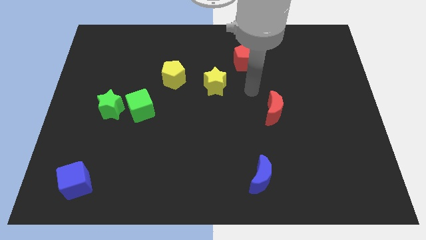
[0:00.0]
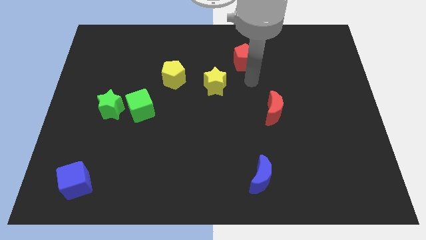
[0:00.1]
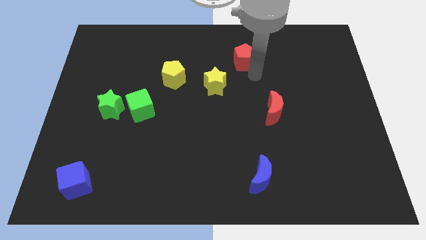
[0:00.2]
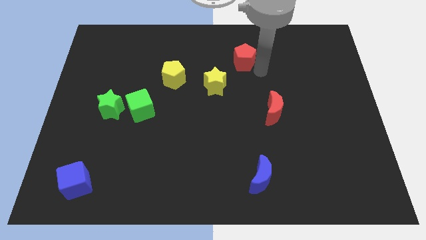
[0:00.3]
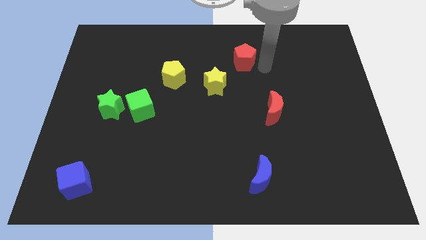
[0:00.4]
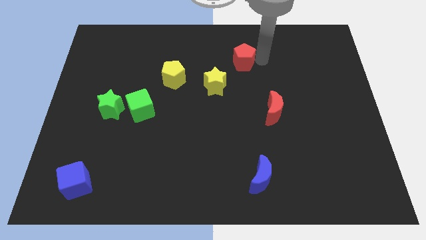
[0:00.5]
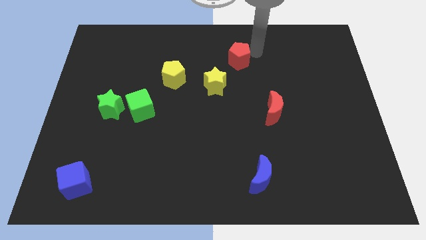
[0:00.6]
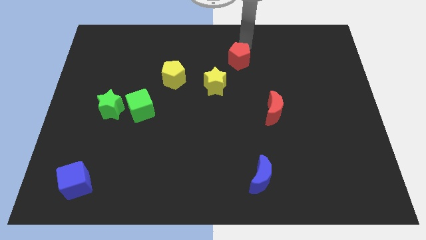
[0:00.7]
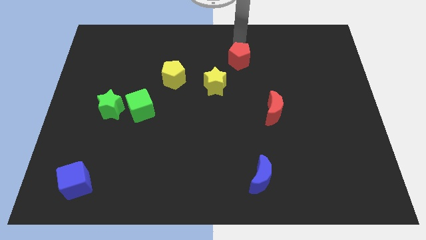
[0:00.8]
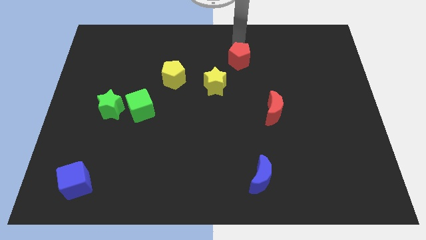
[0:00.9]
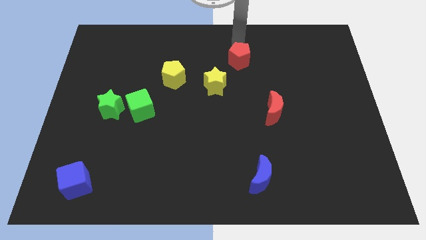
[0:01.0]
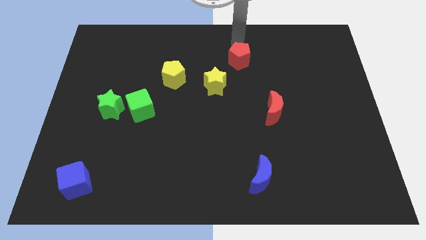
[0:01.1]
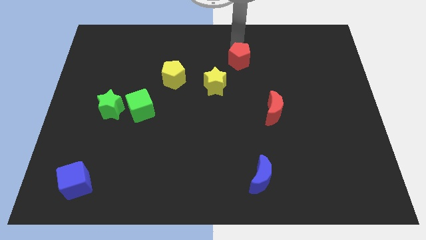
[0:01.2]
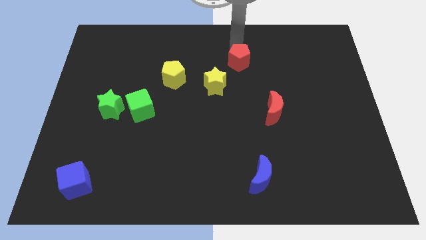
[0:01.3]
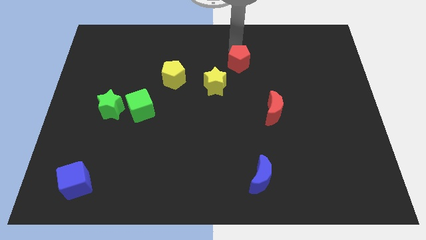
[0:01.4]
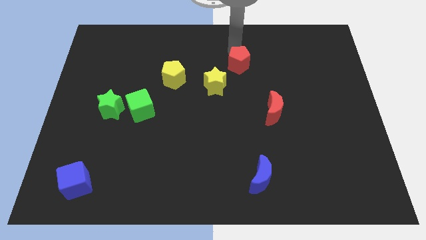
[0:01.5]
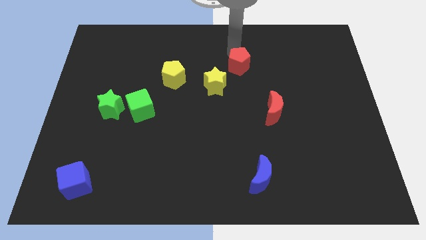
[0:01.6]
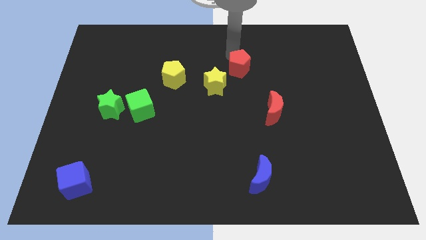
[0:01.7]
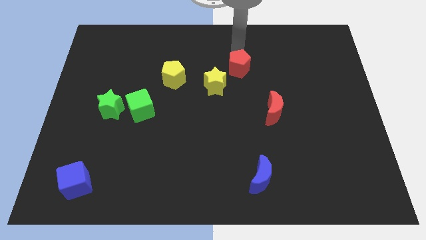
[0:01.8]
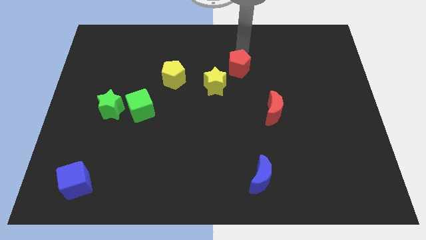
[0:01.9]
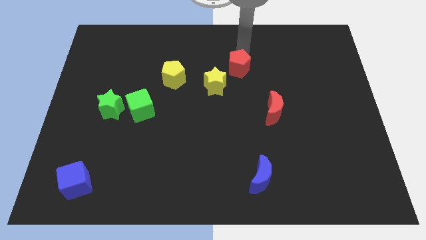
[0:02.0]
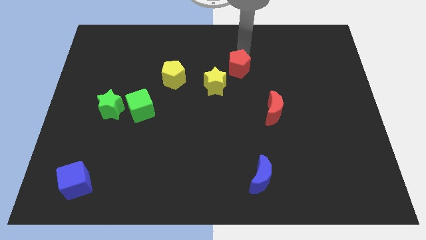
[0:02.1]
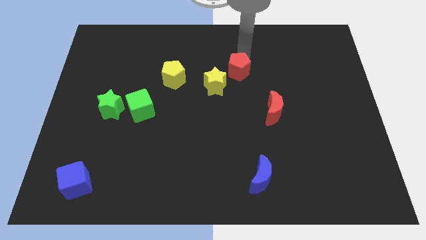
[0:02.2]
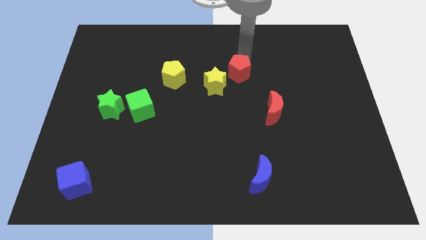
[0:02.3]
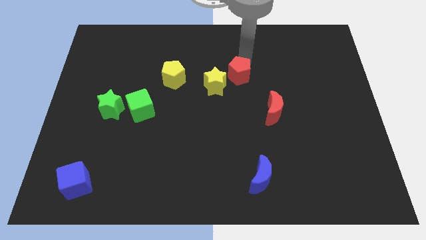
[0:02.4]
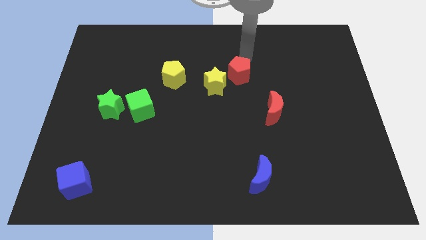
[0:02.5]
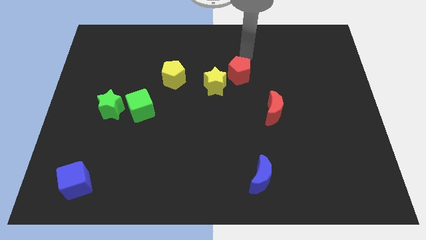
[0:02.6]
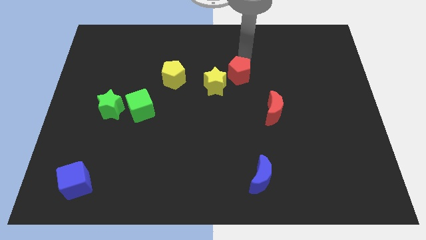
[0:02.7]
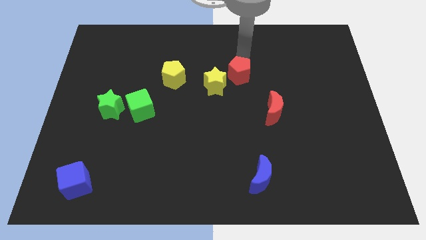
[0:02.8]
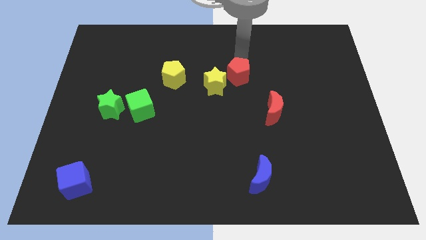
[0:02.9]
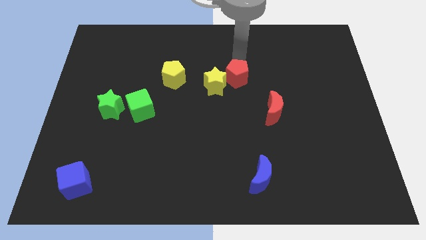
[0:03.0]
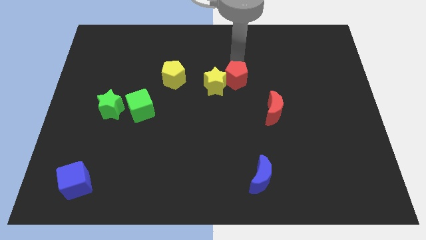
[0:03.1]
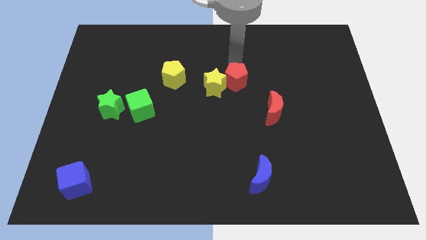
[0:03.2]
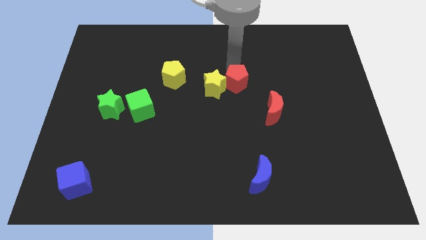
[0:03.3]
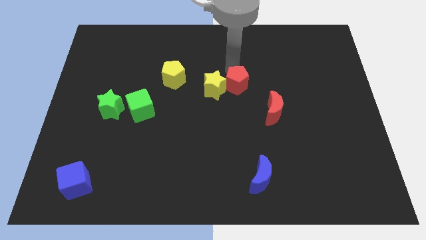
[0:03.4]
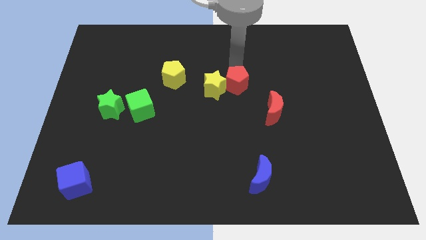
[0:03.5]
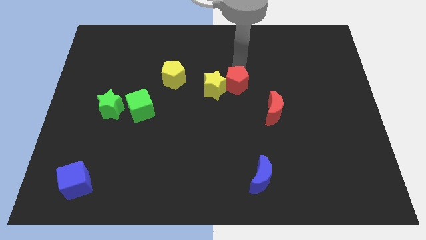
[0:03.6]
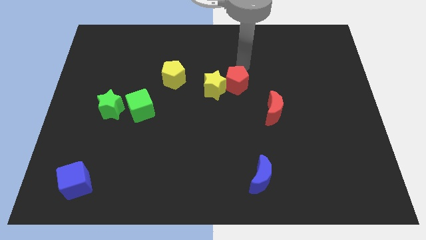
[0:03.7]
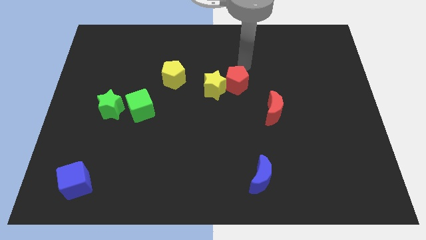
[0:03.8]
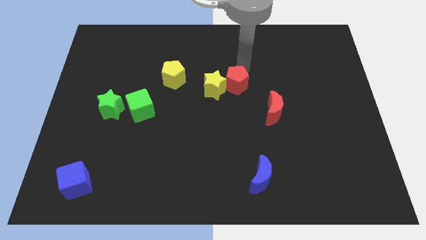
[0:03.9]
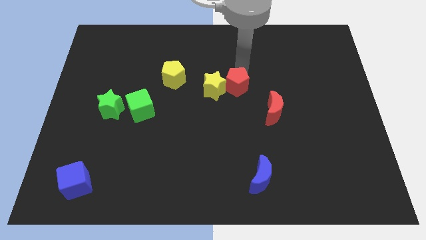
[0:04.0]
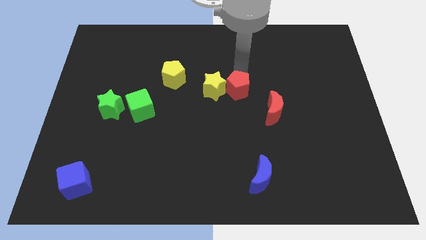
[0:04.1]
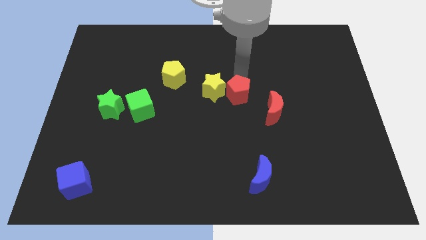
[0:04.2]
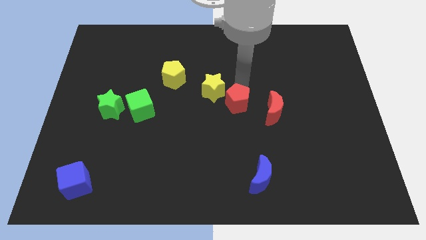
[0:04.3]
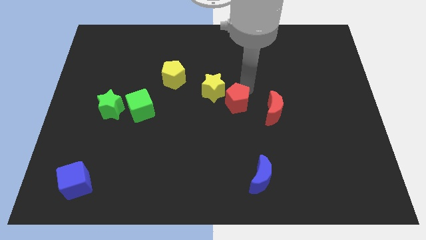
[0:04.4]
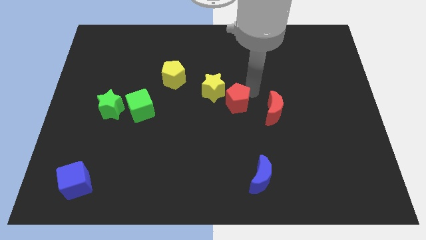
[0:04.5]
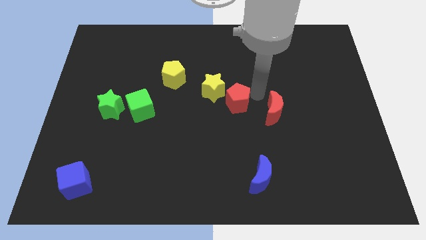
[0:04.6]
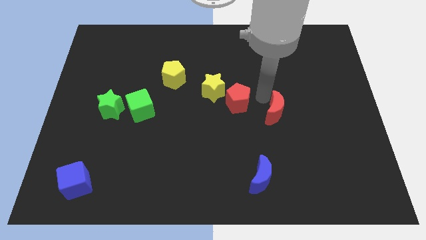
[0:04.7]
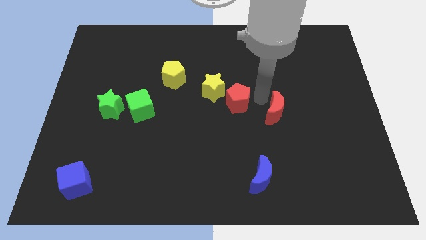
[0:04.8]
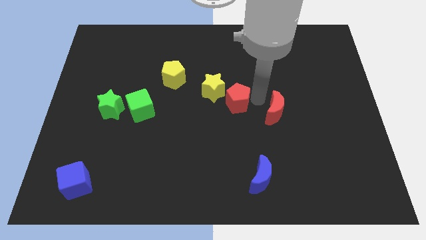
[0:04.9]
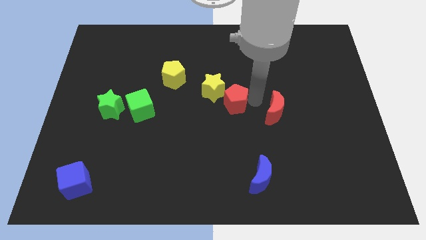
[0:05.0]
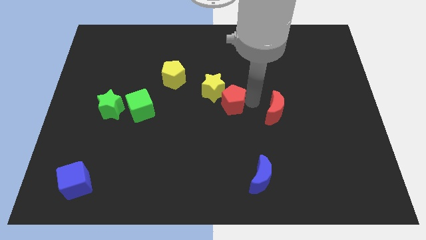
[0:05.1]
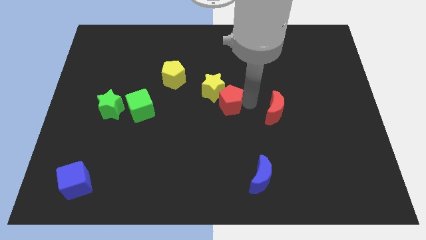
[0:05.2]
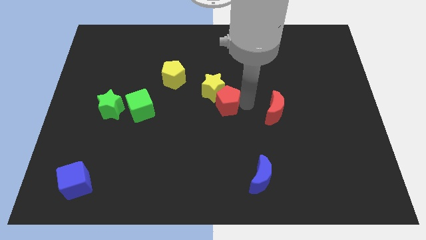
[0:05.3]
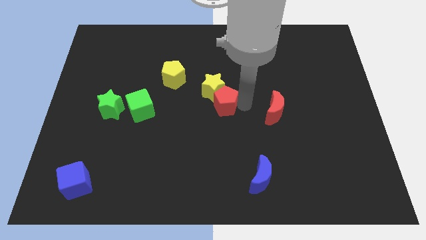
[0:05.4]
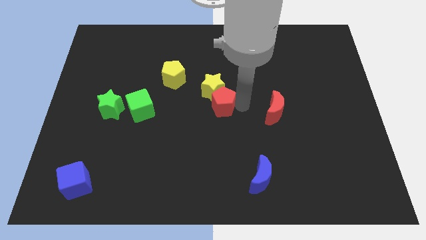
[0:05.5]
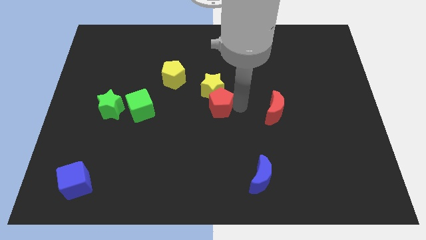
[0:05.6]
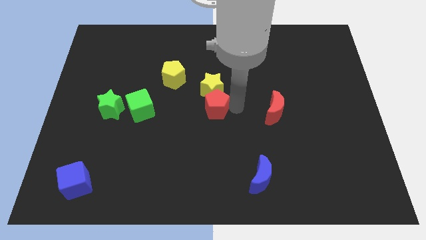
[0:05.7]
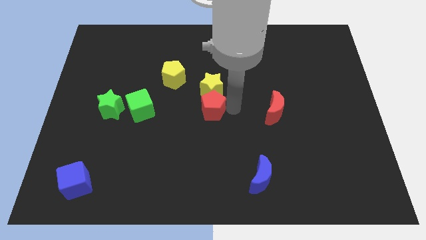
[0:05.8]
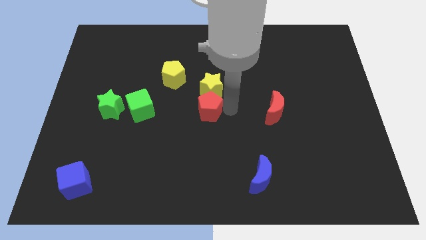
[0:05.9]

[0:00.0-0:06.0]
slide the red pentagon to the right side of the green cube
